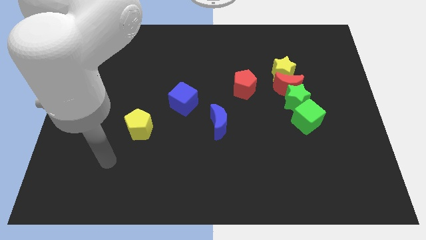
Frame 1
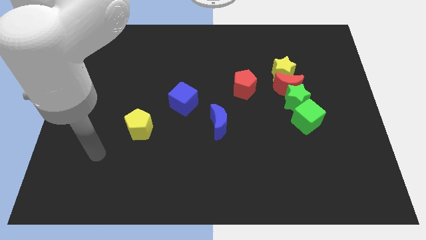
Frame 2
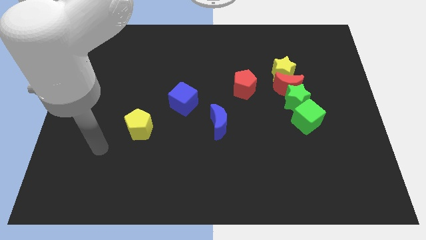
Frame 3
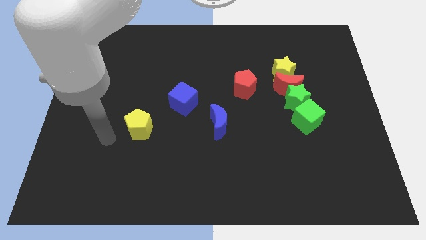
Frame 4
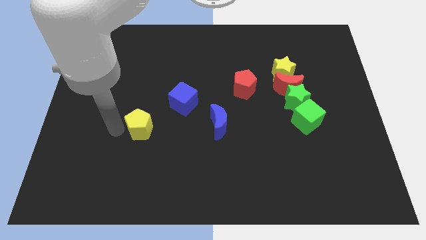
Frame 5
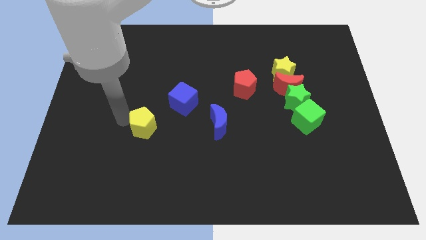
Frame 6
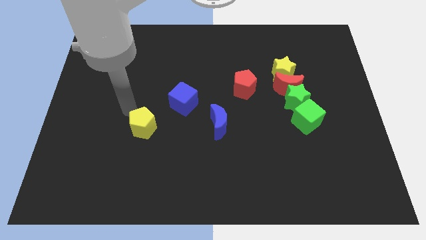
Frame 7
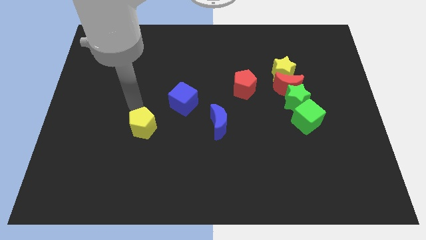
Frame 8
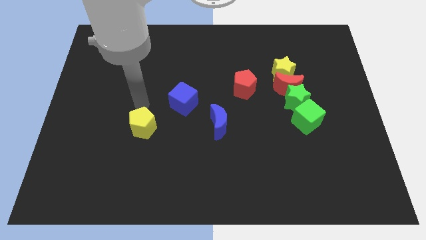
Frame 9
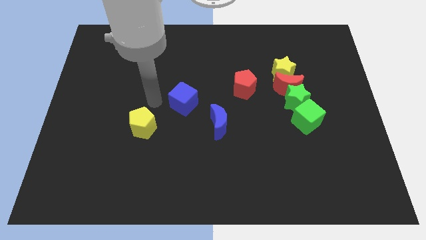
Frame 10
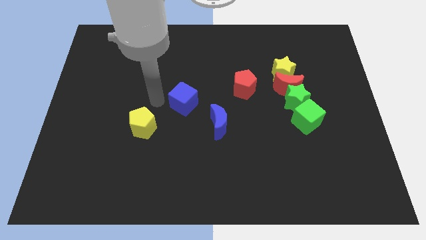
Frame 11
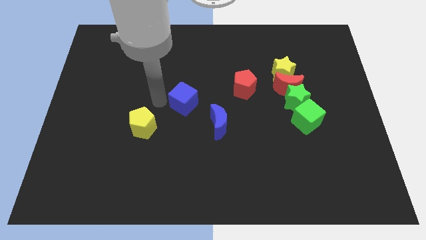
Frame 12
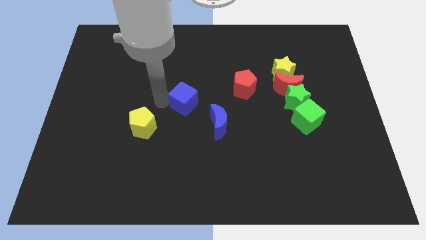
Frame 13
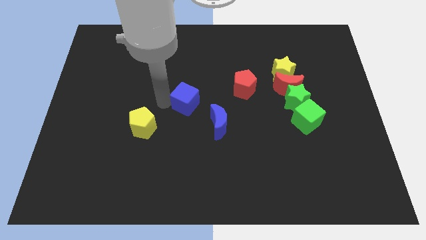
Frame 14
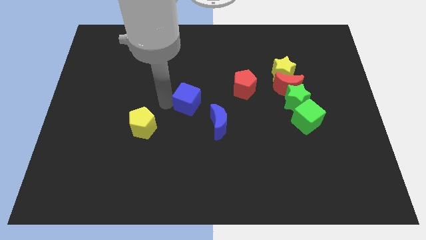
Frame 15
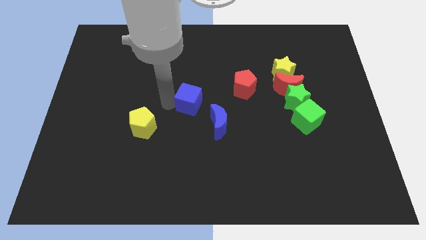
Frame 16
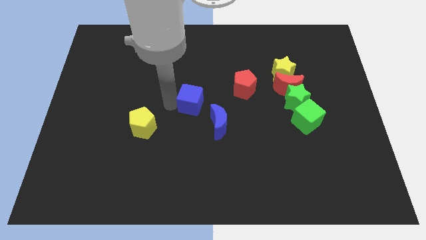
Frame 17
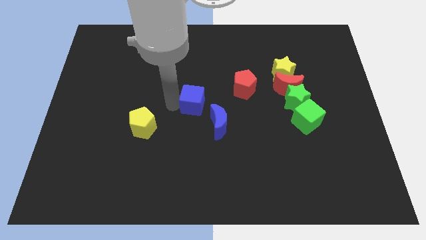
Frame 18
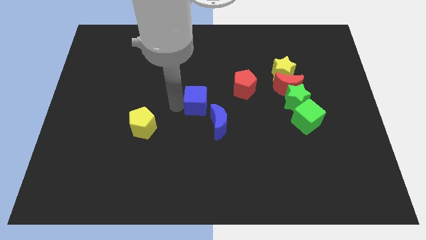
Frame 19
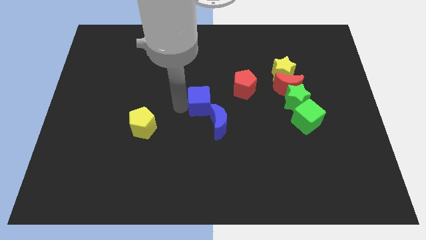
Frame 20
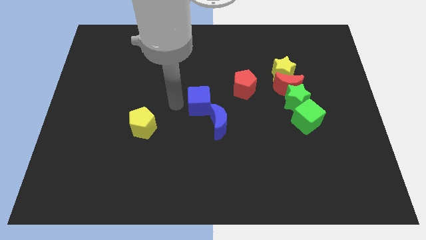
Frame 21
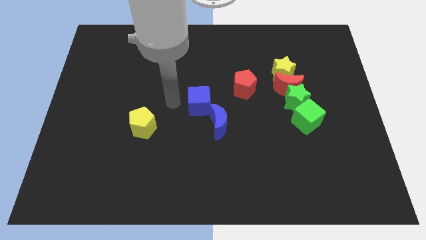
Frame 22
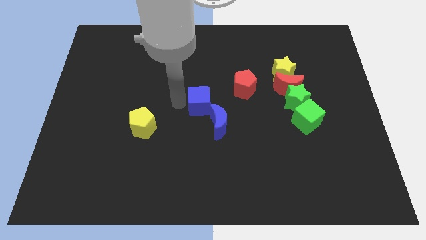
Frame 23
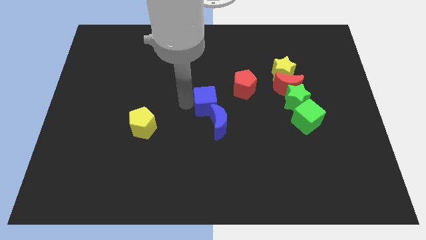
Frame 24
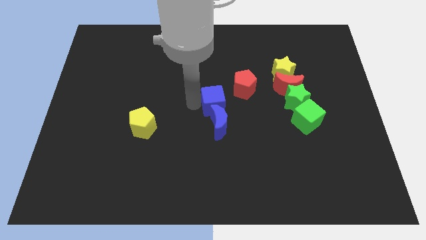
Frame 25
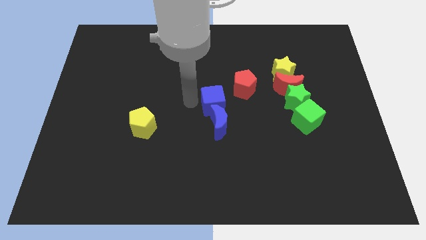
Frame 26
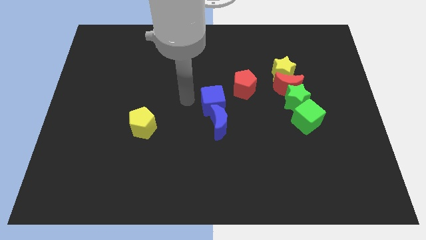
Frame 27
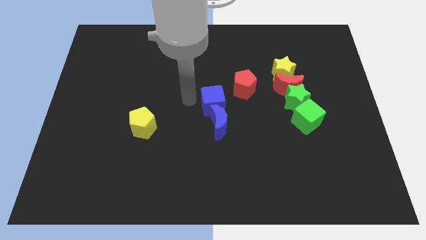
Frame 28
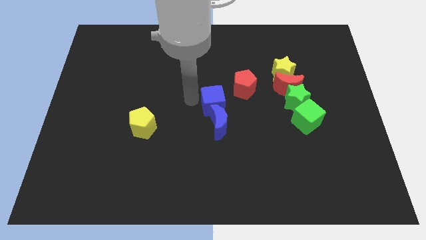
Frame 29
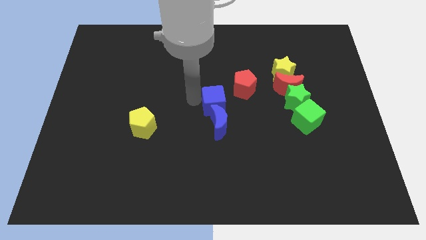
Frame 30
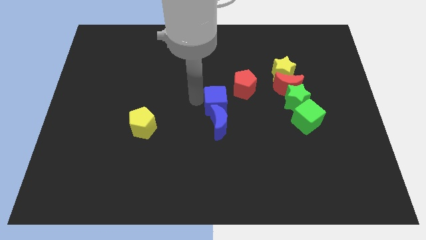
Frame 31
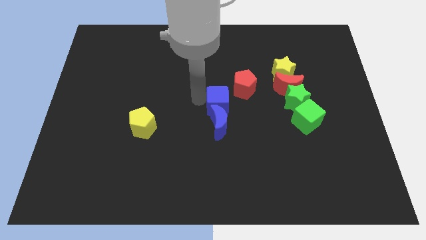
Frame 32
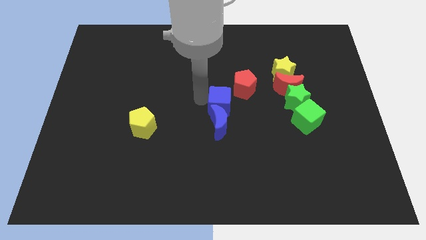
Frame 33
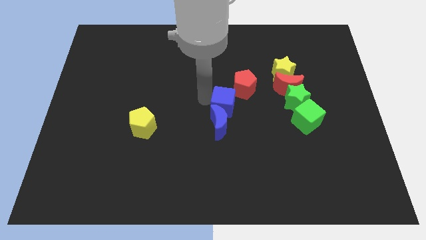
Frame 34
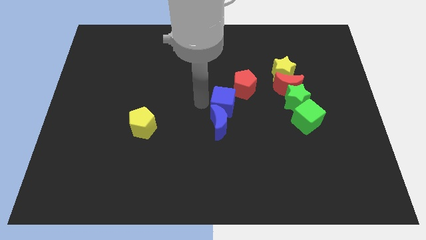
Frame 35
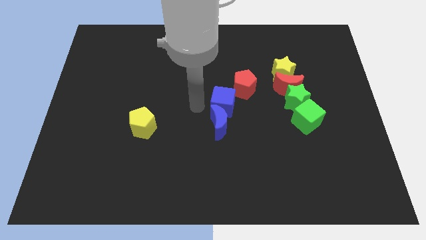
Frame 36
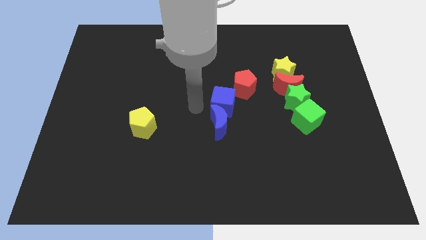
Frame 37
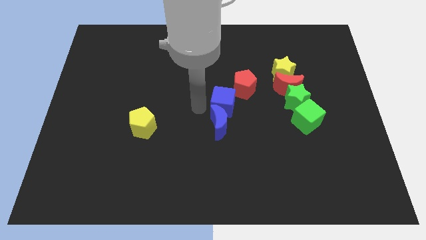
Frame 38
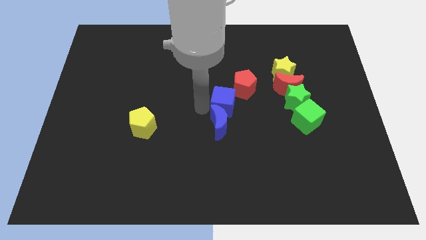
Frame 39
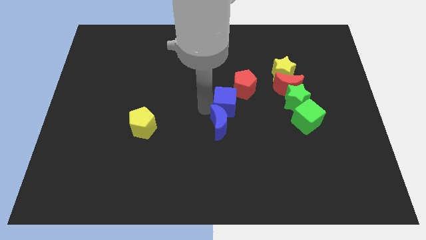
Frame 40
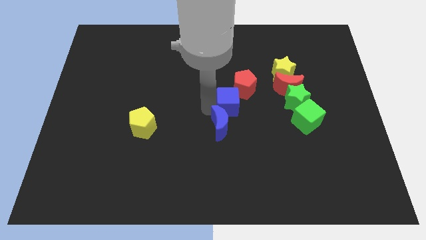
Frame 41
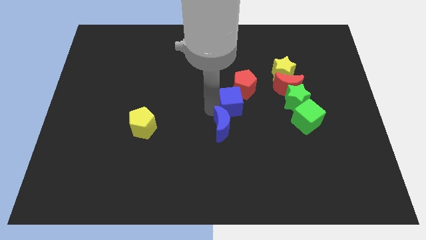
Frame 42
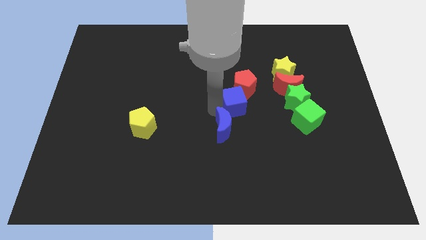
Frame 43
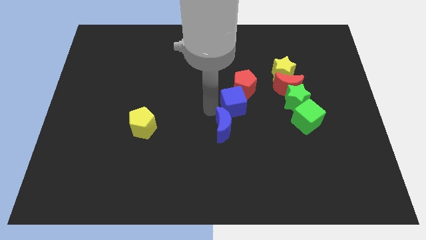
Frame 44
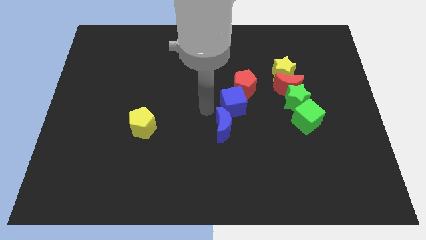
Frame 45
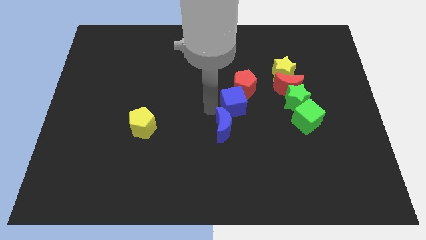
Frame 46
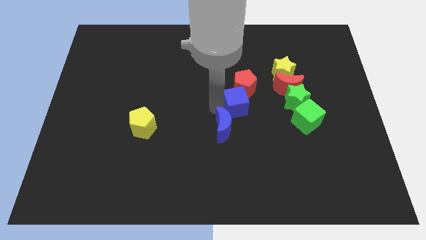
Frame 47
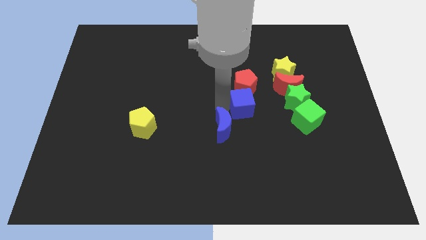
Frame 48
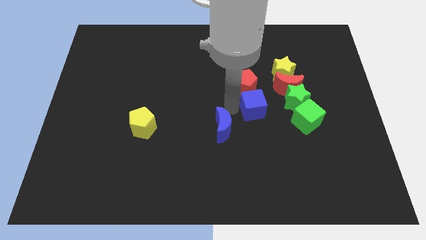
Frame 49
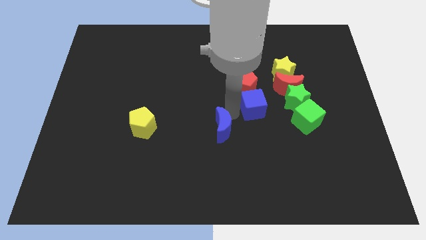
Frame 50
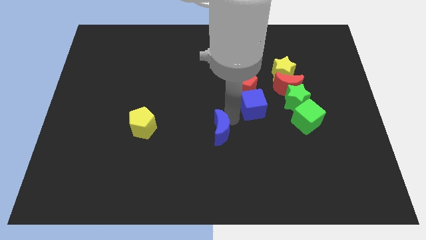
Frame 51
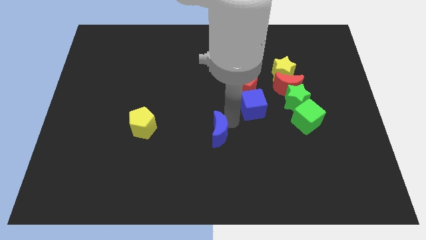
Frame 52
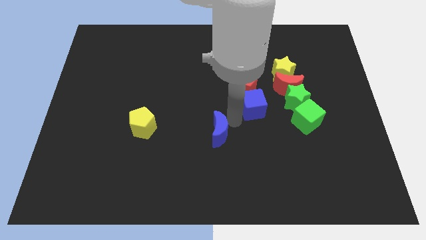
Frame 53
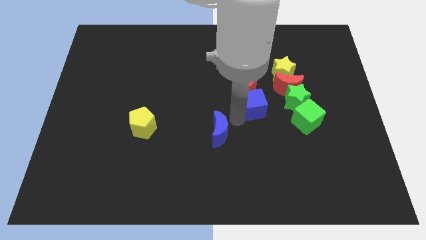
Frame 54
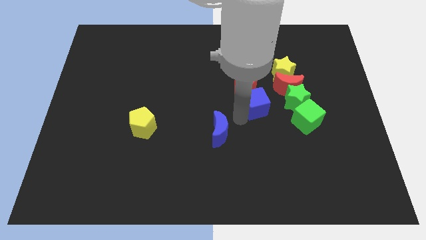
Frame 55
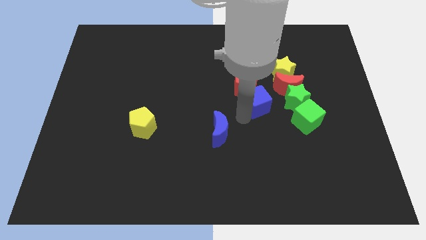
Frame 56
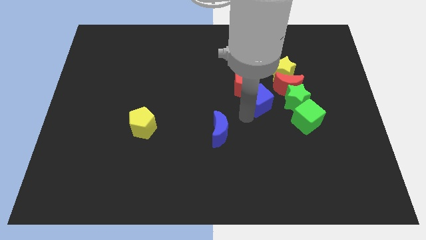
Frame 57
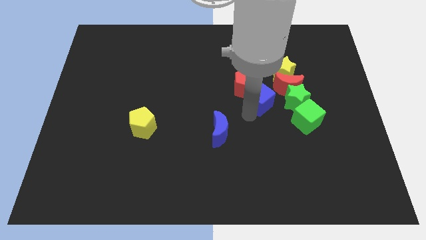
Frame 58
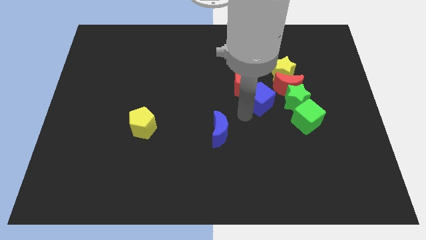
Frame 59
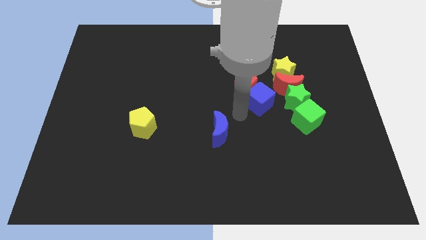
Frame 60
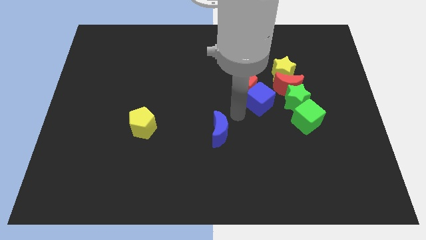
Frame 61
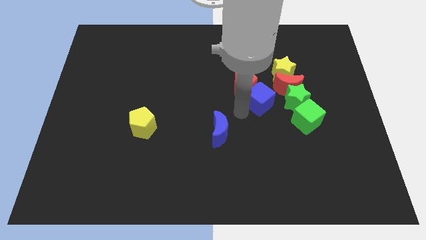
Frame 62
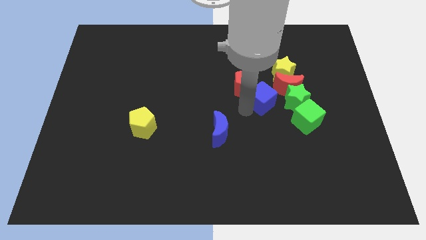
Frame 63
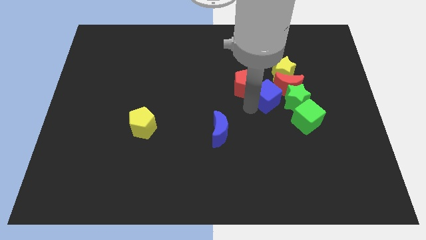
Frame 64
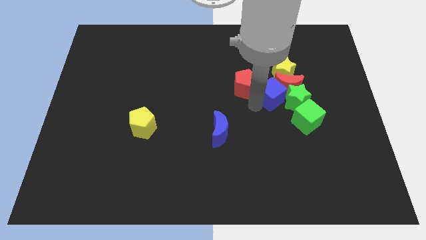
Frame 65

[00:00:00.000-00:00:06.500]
slide the blue cube close to the red moon

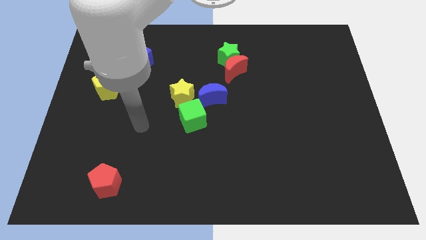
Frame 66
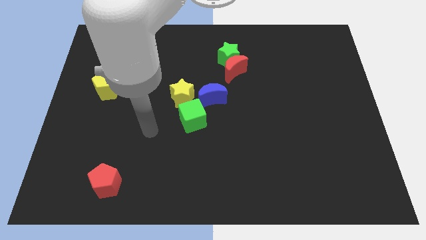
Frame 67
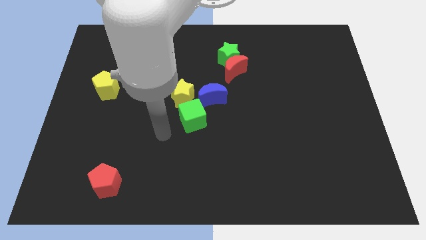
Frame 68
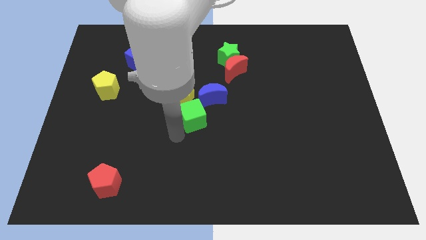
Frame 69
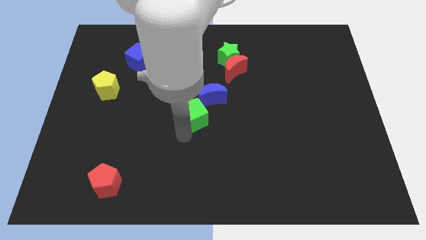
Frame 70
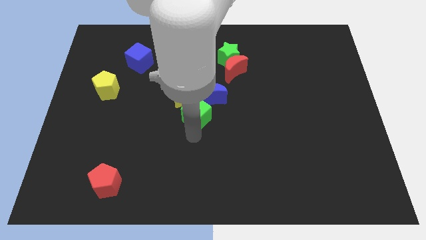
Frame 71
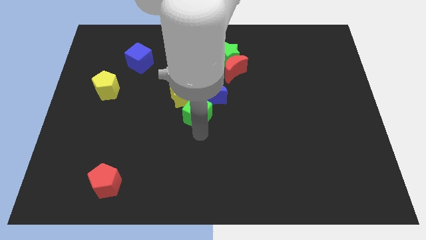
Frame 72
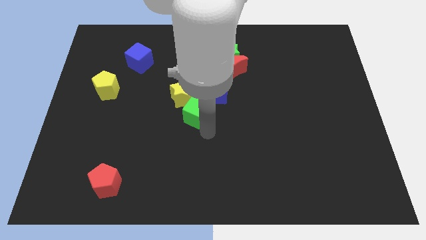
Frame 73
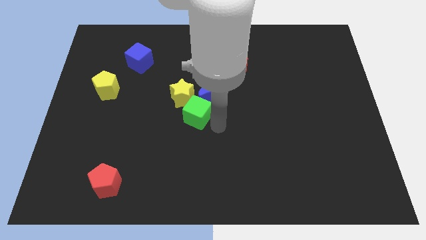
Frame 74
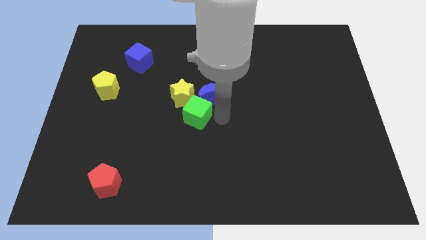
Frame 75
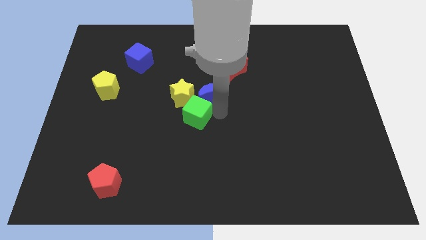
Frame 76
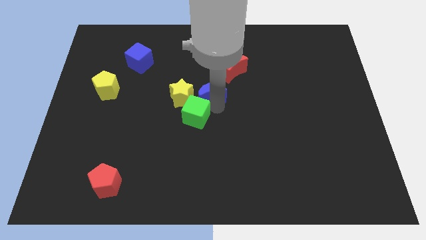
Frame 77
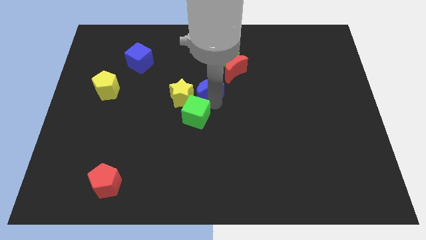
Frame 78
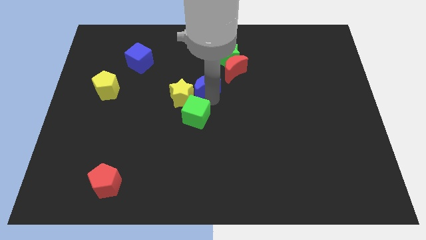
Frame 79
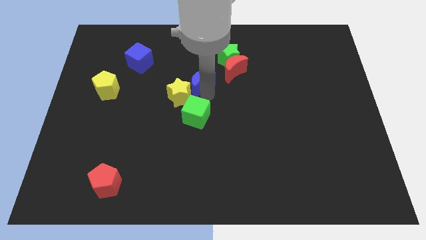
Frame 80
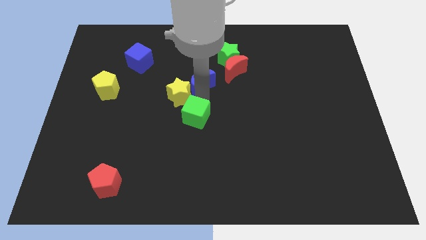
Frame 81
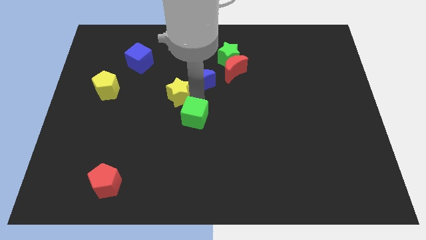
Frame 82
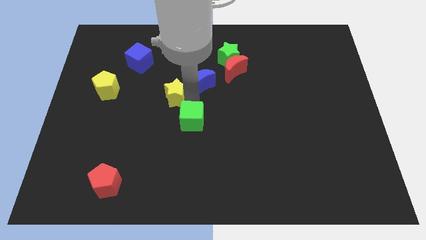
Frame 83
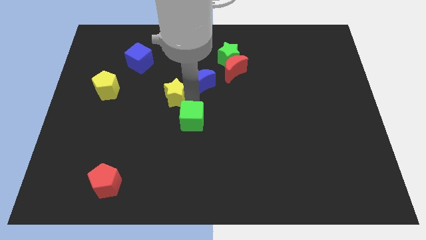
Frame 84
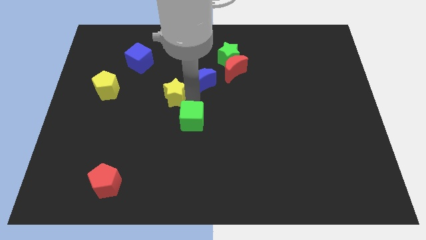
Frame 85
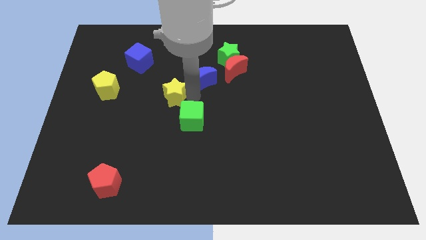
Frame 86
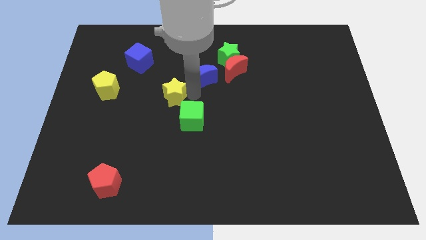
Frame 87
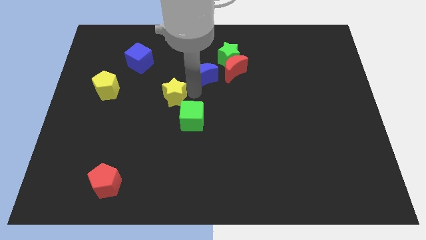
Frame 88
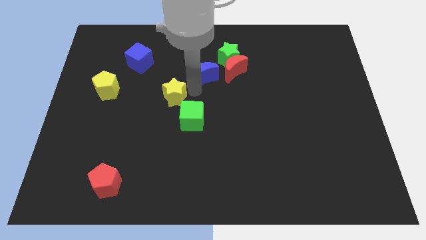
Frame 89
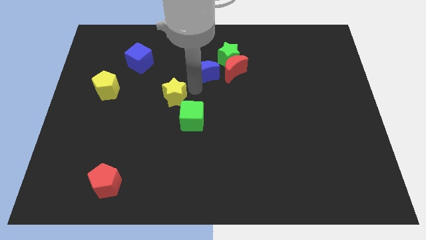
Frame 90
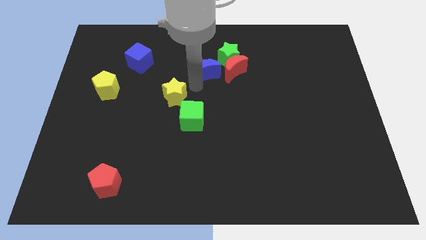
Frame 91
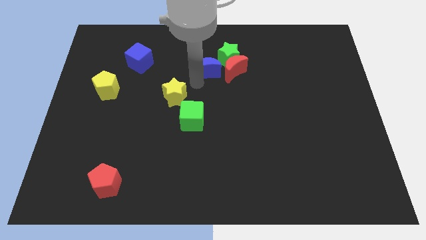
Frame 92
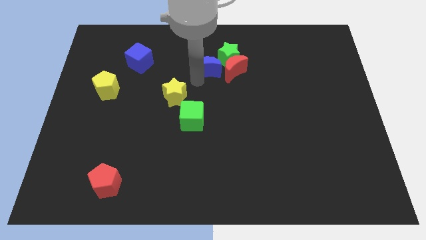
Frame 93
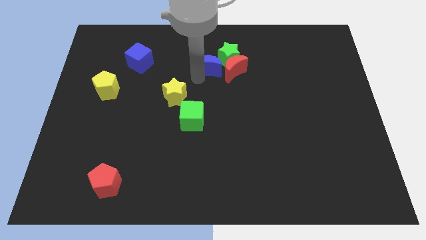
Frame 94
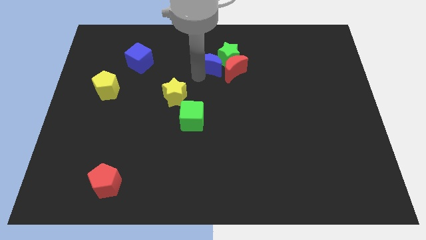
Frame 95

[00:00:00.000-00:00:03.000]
push the blue moon towards the green star
